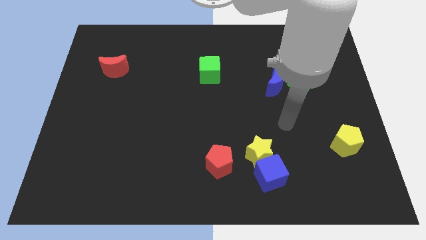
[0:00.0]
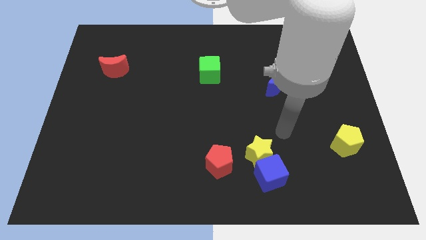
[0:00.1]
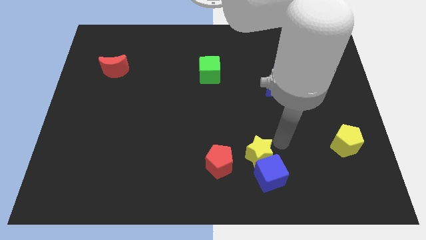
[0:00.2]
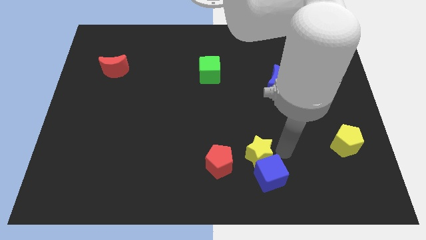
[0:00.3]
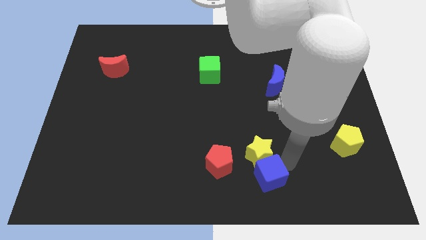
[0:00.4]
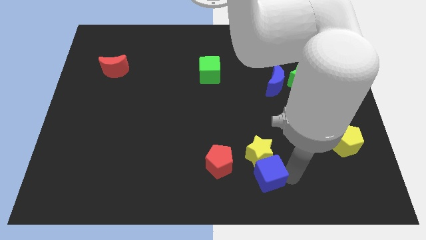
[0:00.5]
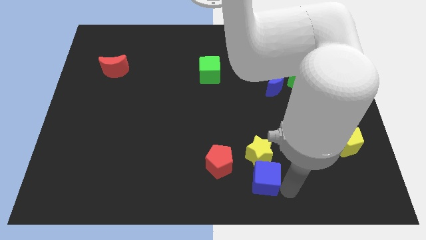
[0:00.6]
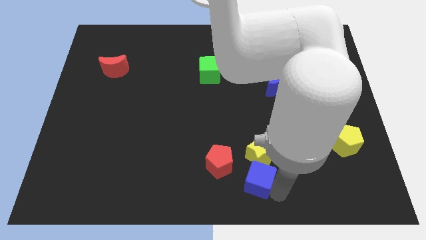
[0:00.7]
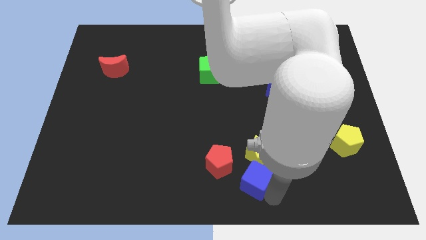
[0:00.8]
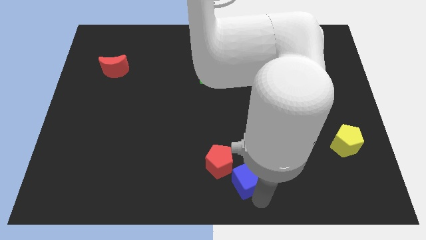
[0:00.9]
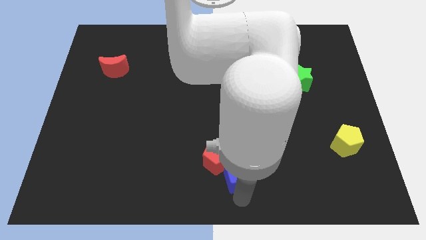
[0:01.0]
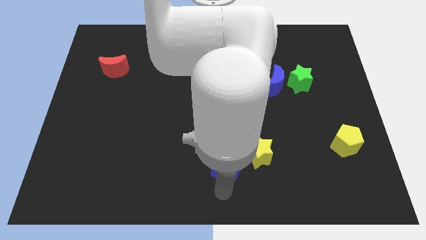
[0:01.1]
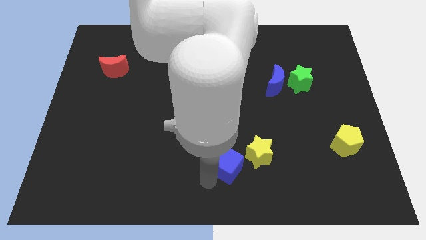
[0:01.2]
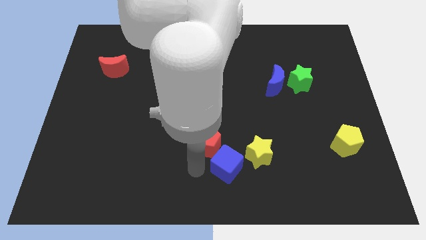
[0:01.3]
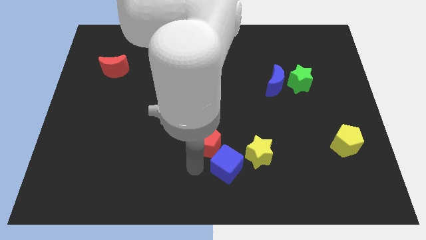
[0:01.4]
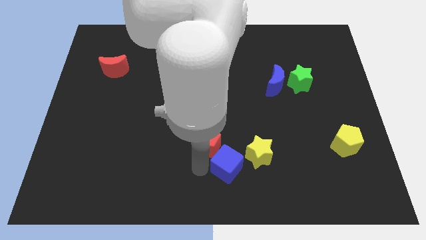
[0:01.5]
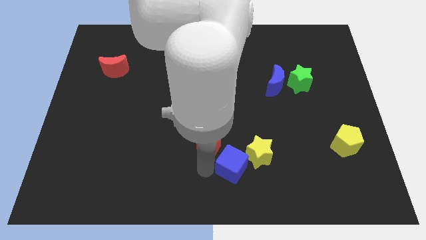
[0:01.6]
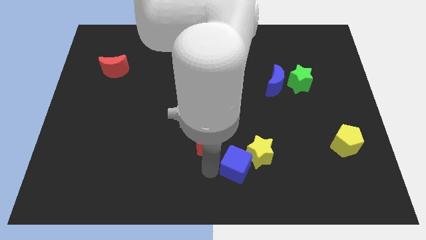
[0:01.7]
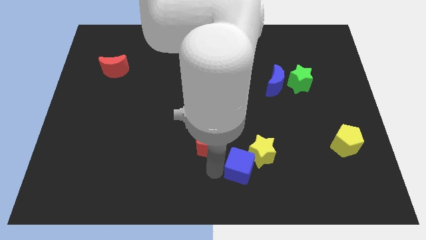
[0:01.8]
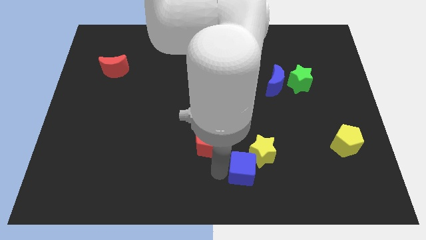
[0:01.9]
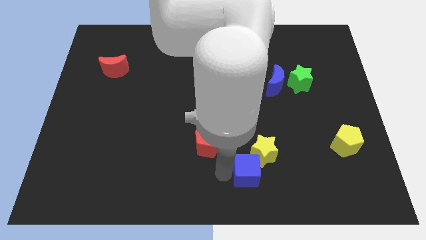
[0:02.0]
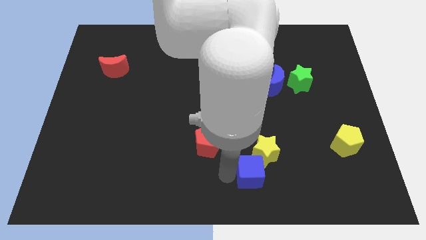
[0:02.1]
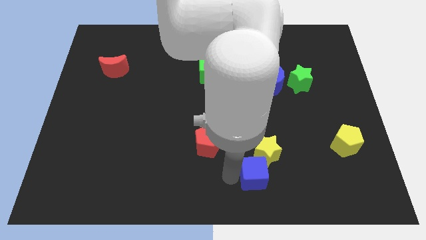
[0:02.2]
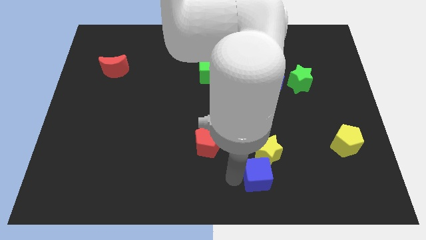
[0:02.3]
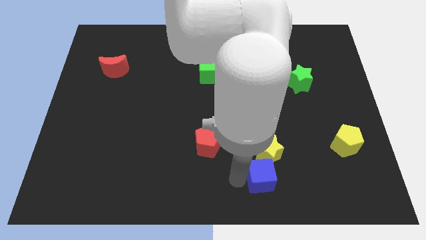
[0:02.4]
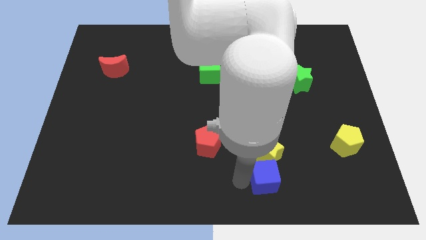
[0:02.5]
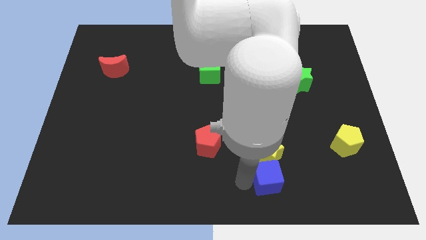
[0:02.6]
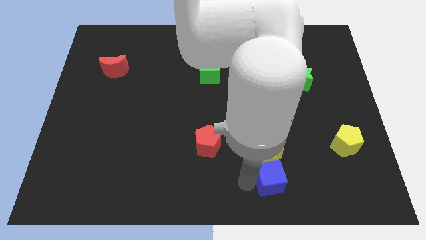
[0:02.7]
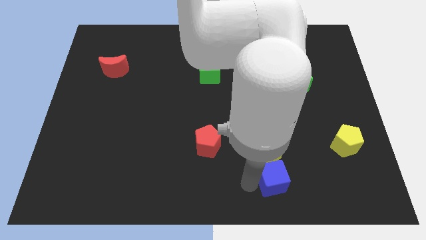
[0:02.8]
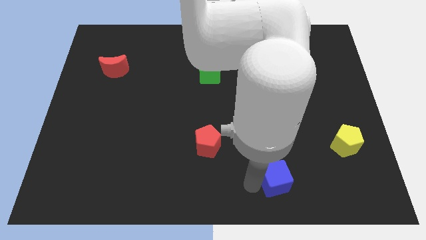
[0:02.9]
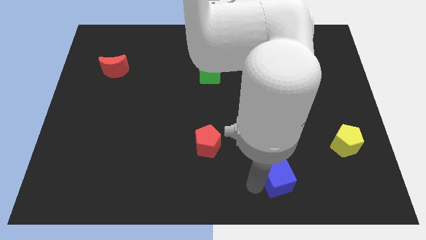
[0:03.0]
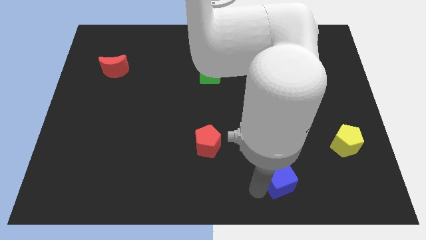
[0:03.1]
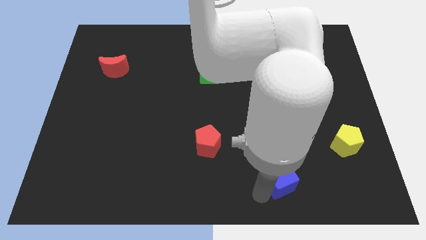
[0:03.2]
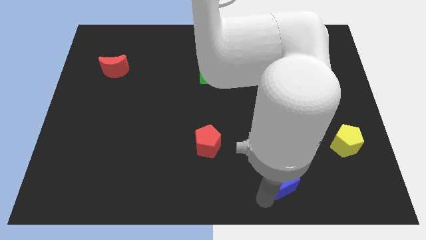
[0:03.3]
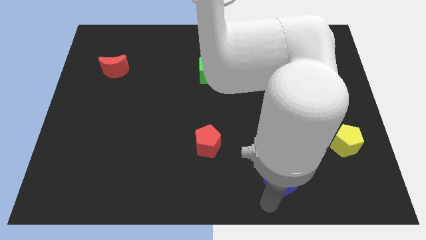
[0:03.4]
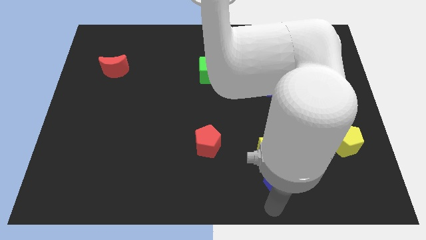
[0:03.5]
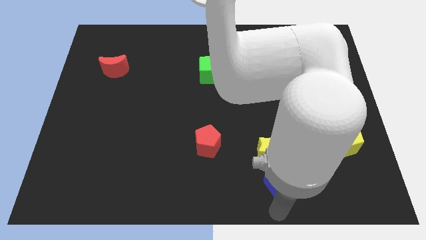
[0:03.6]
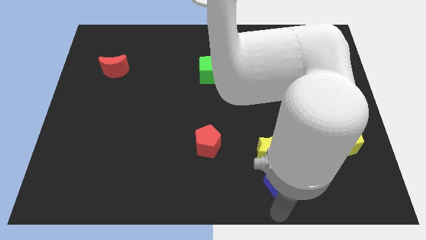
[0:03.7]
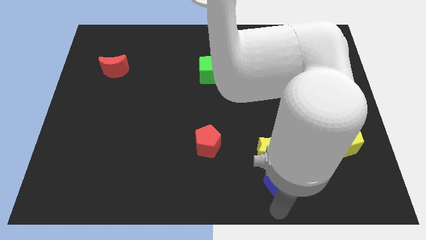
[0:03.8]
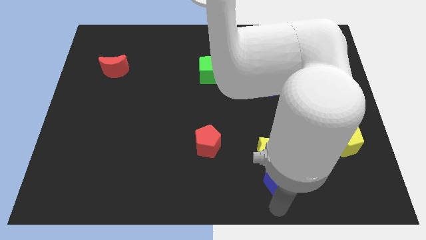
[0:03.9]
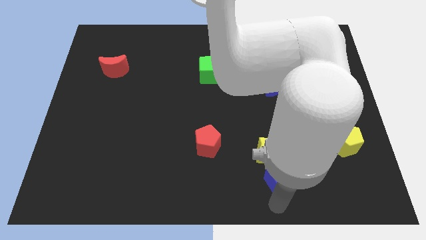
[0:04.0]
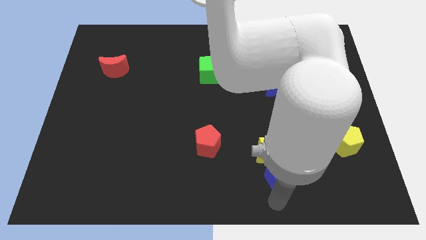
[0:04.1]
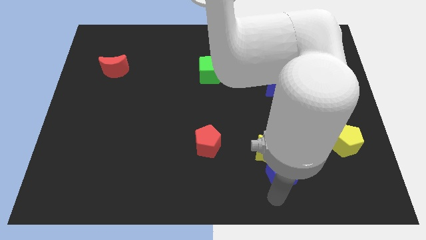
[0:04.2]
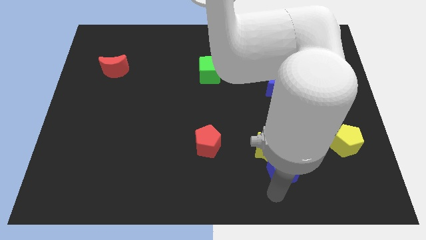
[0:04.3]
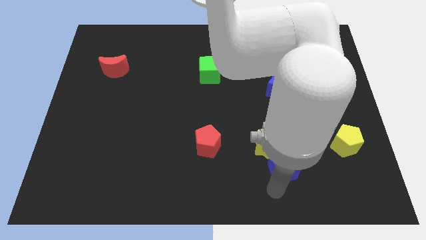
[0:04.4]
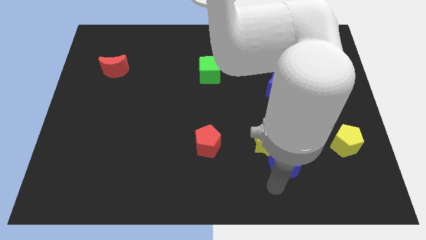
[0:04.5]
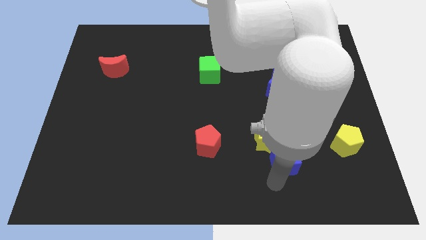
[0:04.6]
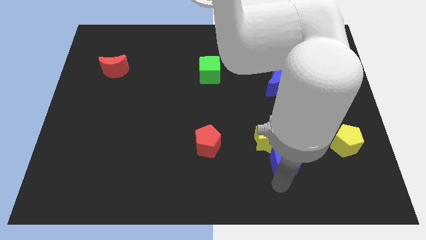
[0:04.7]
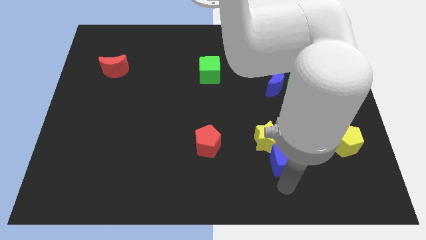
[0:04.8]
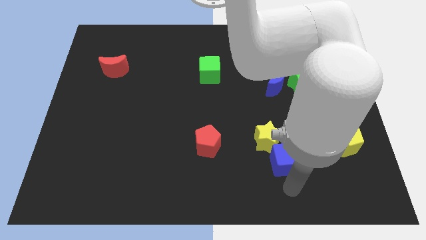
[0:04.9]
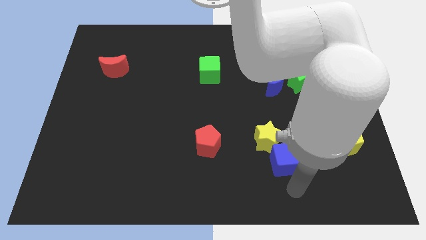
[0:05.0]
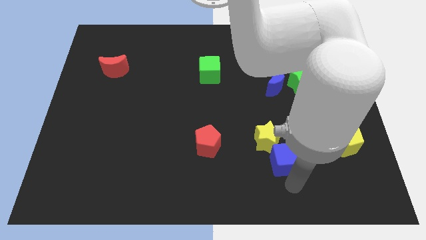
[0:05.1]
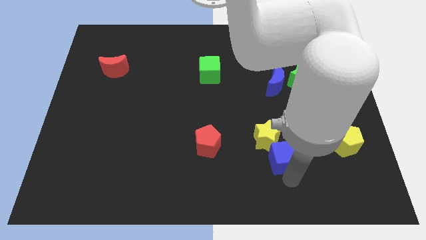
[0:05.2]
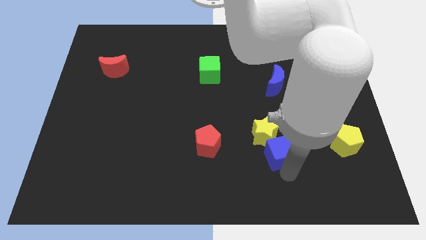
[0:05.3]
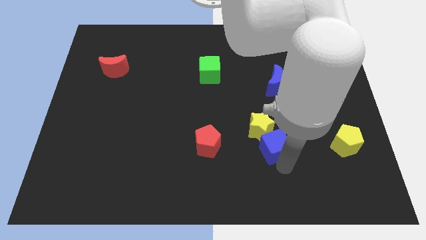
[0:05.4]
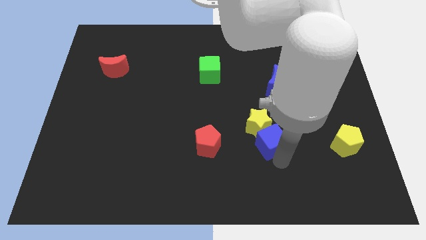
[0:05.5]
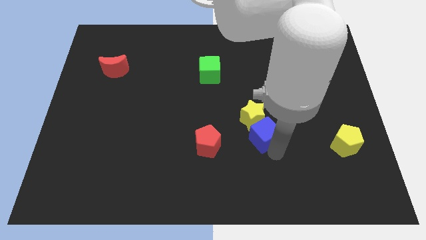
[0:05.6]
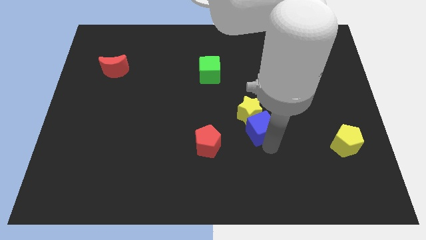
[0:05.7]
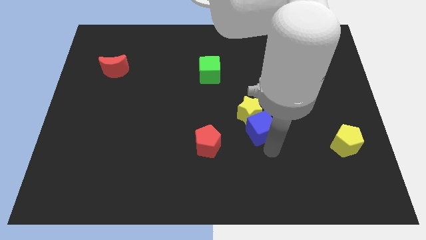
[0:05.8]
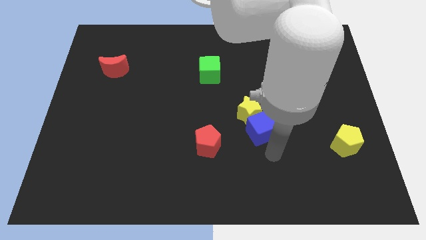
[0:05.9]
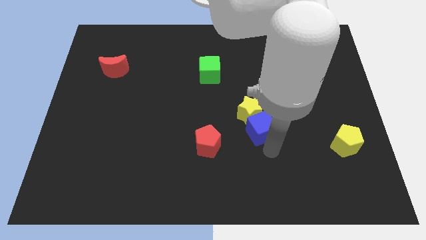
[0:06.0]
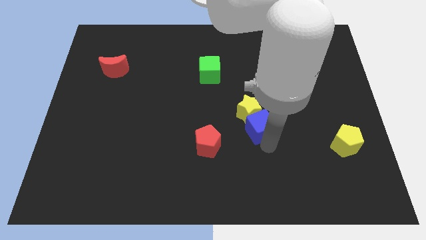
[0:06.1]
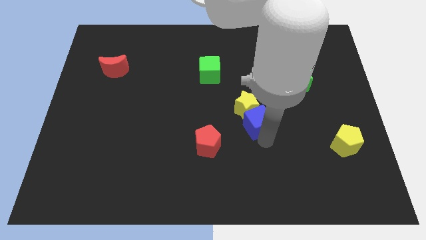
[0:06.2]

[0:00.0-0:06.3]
move the blue cube to the center

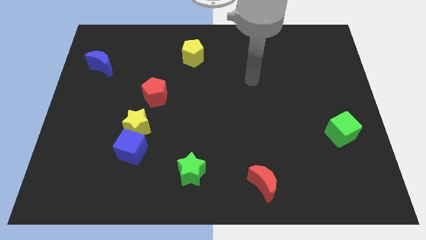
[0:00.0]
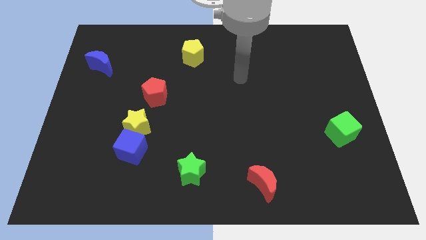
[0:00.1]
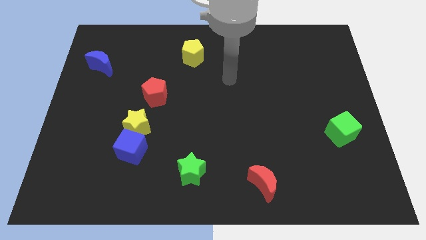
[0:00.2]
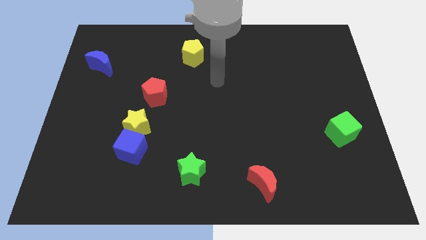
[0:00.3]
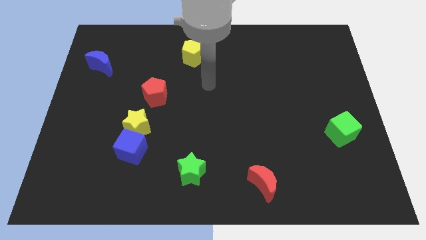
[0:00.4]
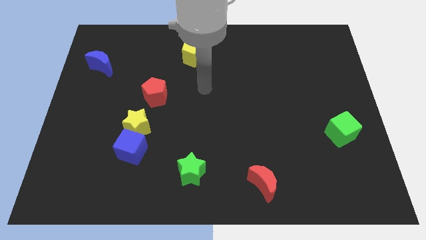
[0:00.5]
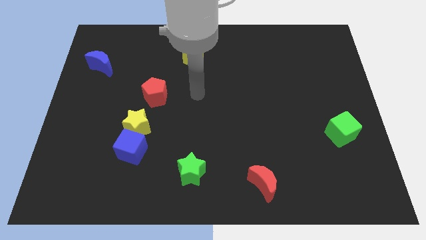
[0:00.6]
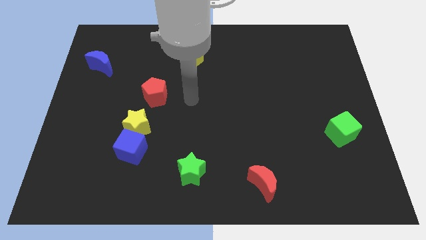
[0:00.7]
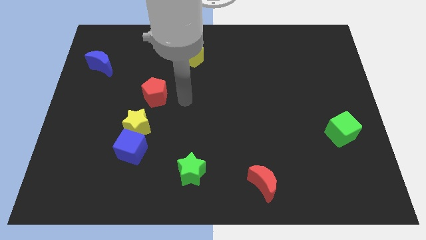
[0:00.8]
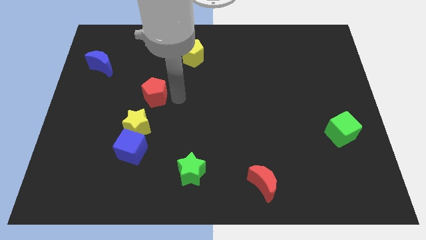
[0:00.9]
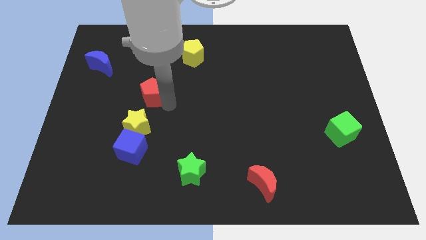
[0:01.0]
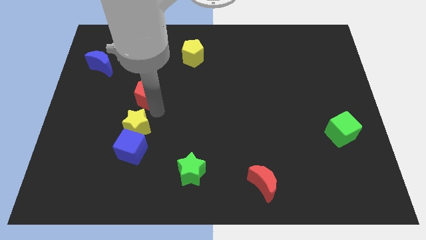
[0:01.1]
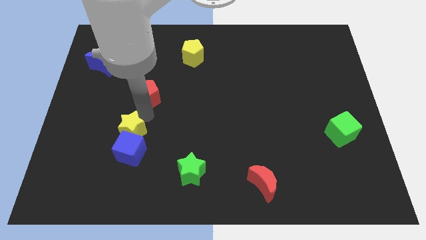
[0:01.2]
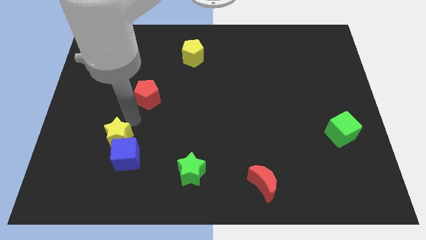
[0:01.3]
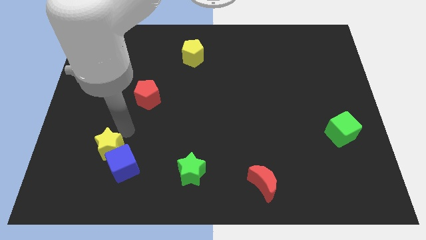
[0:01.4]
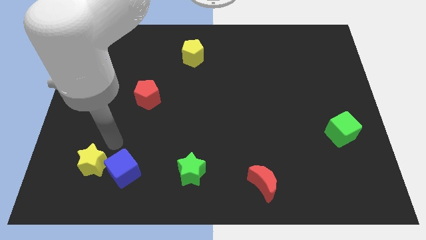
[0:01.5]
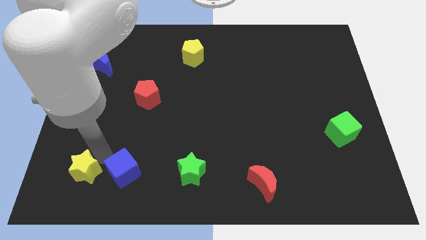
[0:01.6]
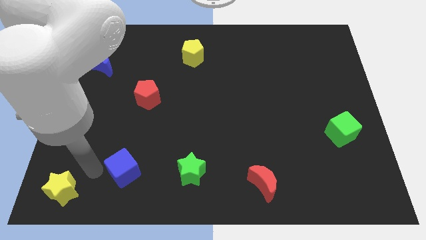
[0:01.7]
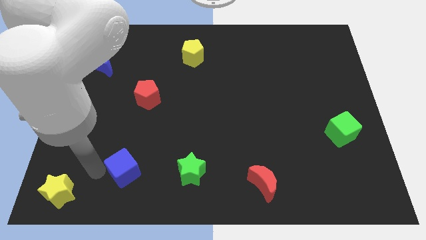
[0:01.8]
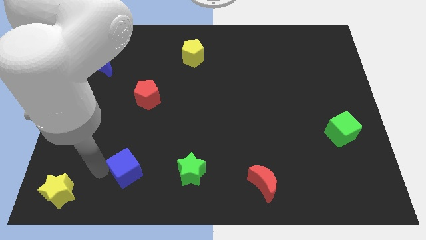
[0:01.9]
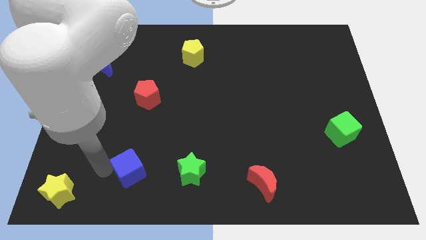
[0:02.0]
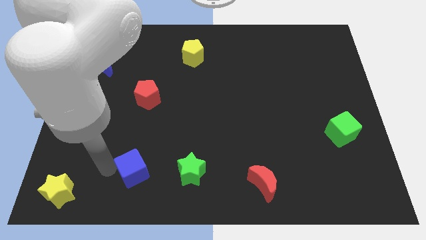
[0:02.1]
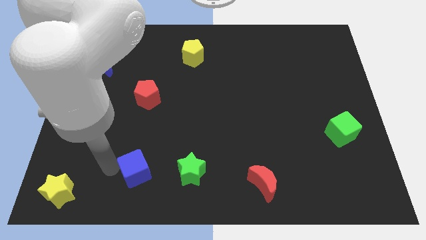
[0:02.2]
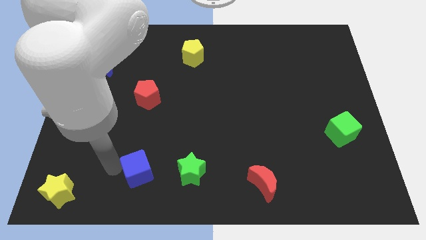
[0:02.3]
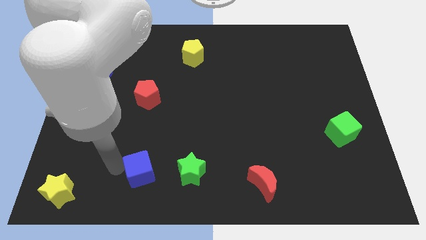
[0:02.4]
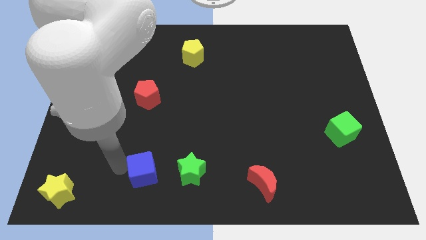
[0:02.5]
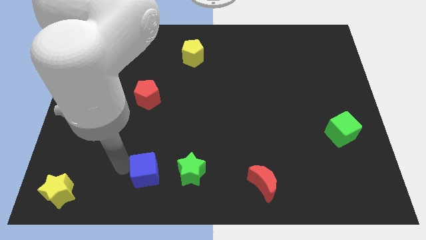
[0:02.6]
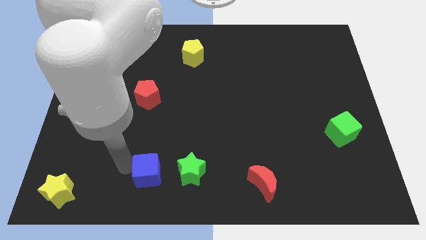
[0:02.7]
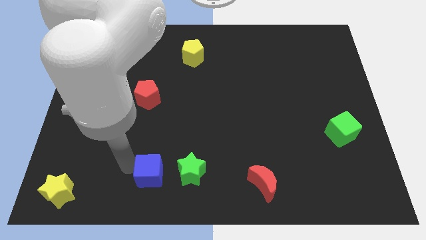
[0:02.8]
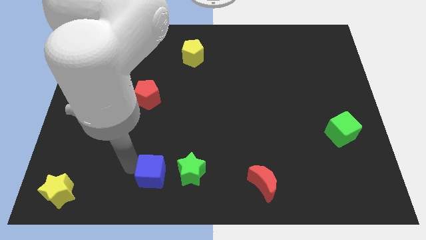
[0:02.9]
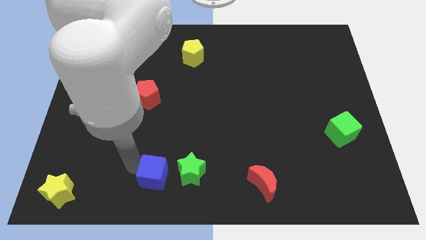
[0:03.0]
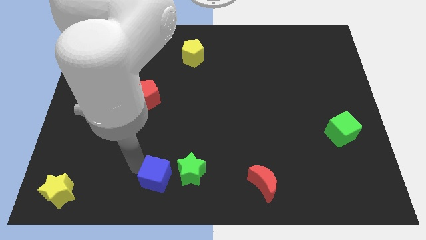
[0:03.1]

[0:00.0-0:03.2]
put the blue cube to the bottom
